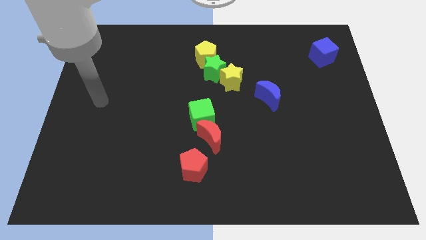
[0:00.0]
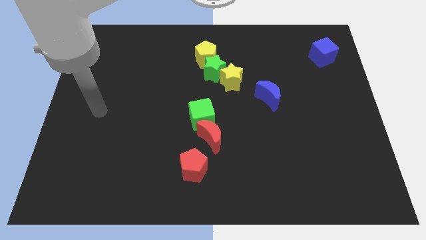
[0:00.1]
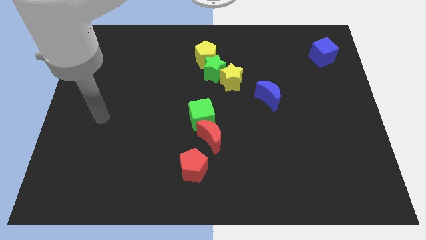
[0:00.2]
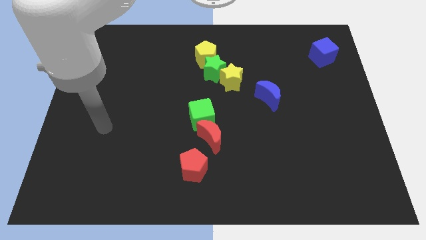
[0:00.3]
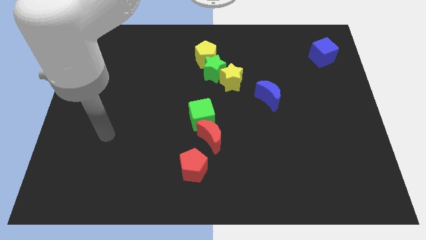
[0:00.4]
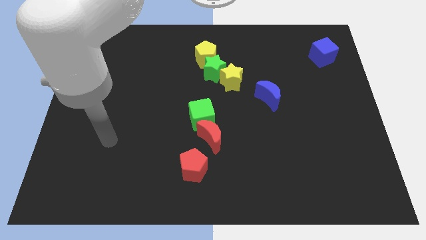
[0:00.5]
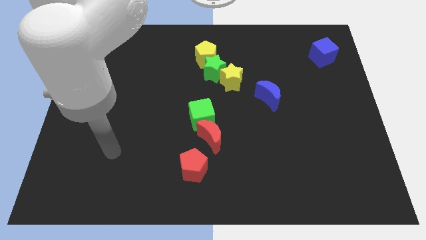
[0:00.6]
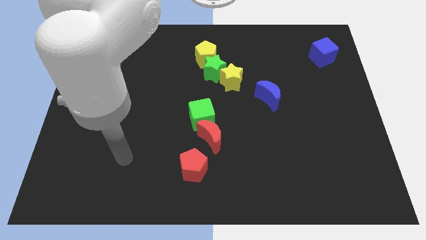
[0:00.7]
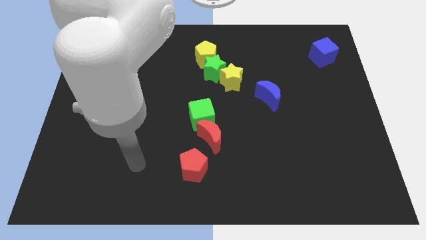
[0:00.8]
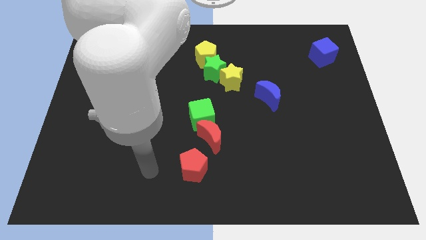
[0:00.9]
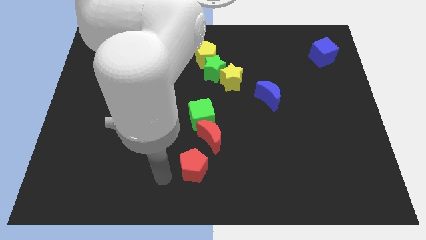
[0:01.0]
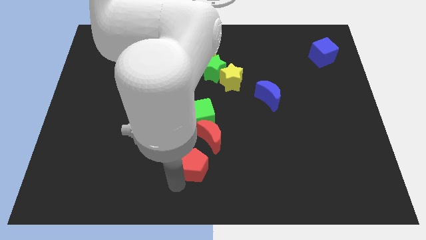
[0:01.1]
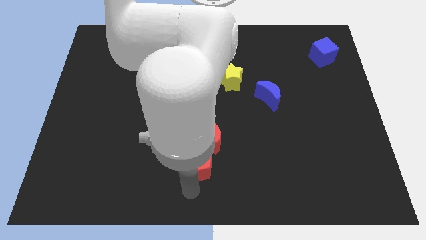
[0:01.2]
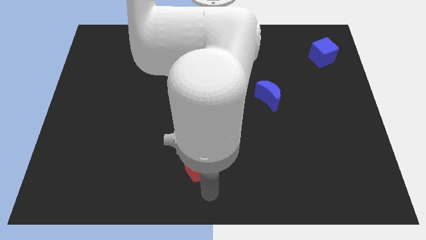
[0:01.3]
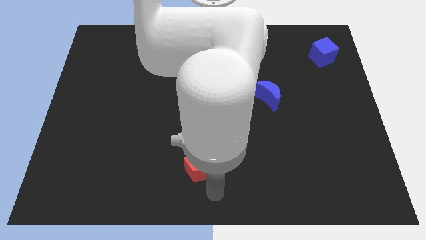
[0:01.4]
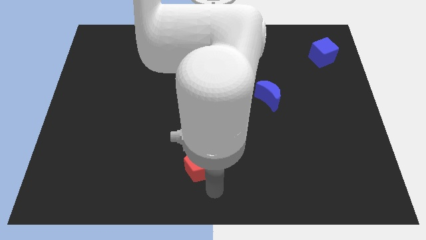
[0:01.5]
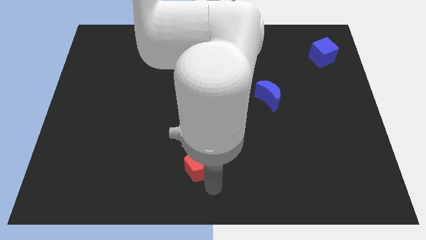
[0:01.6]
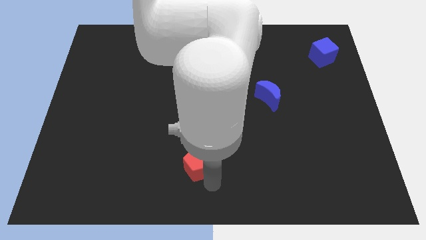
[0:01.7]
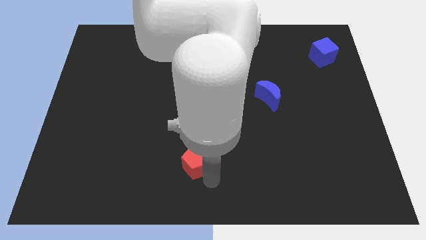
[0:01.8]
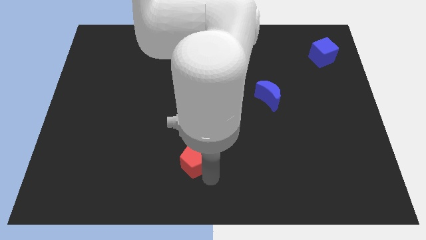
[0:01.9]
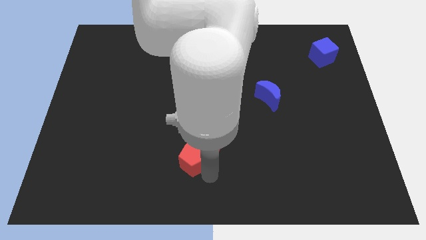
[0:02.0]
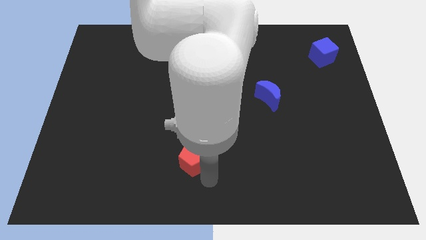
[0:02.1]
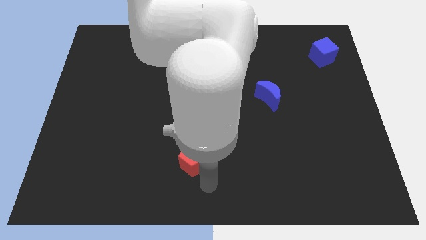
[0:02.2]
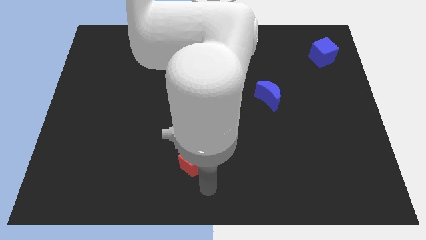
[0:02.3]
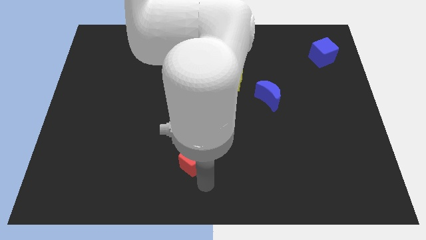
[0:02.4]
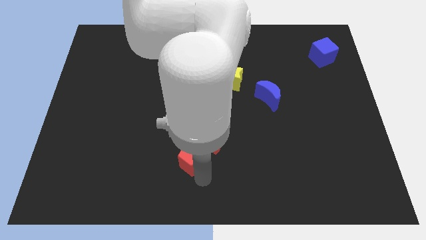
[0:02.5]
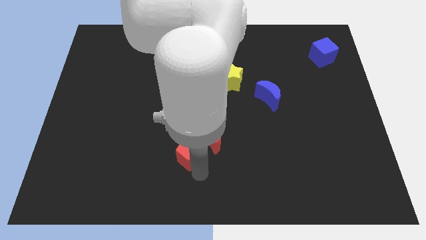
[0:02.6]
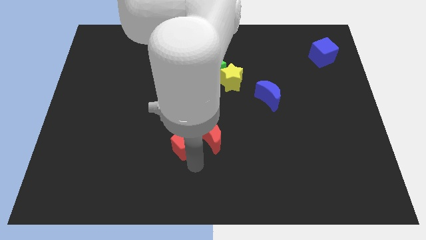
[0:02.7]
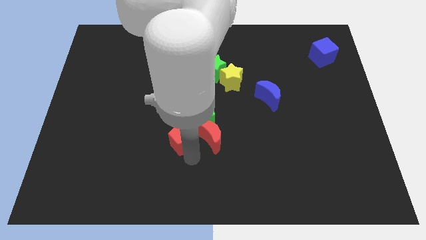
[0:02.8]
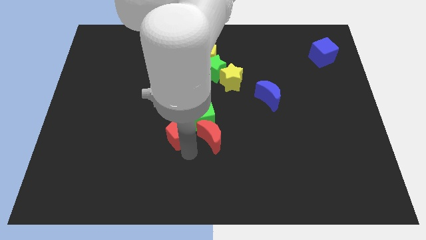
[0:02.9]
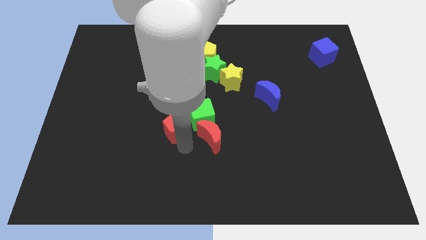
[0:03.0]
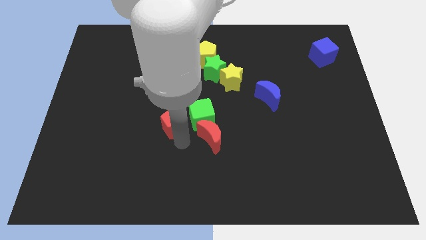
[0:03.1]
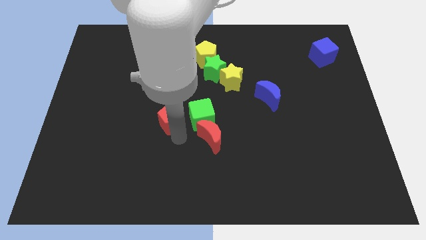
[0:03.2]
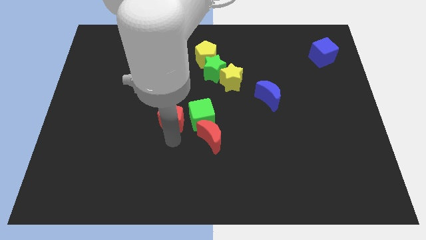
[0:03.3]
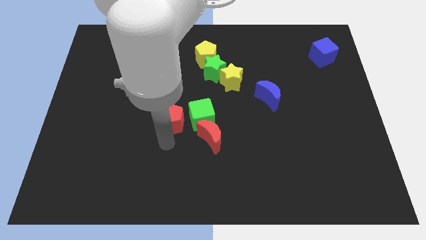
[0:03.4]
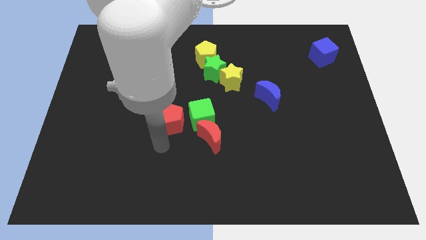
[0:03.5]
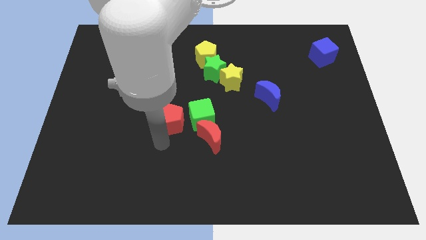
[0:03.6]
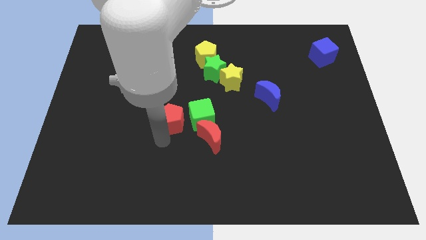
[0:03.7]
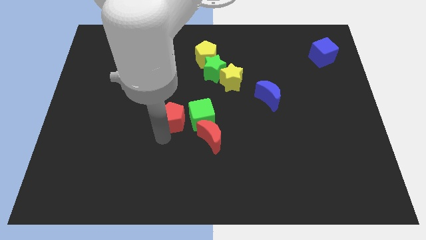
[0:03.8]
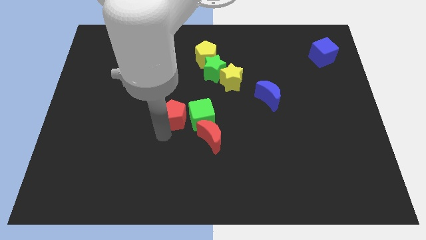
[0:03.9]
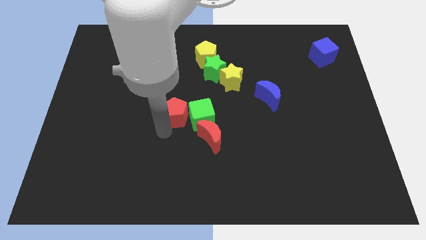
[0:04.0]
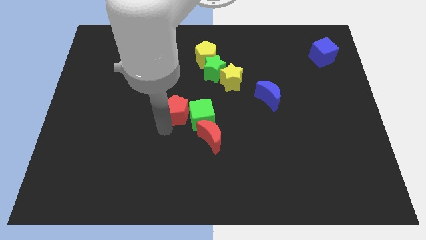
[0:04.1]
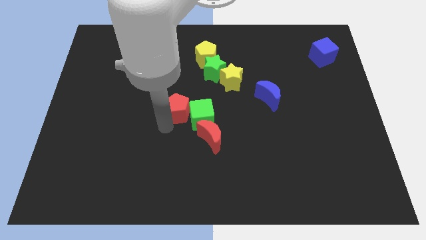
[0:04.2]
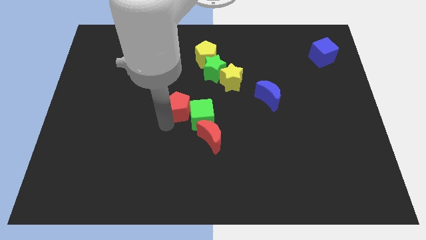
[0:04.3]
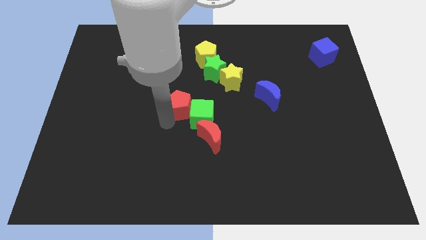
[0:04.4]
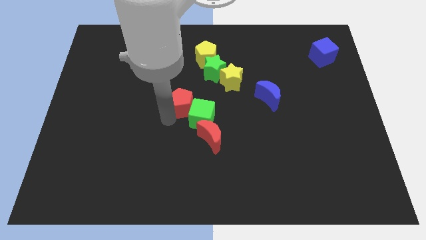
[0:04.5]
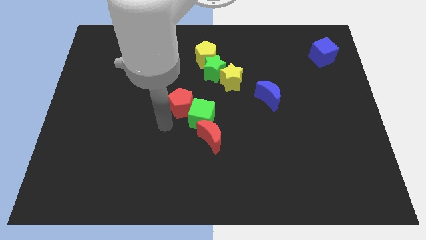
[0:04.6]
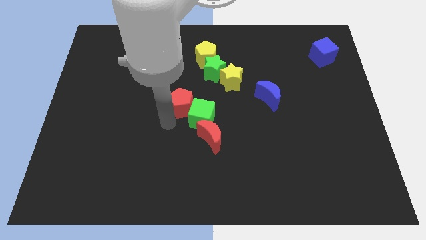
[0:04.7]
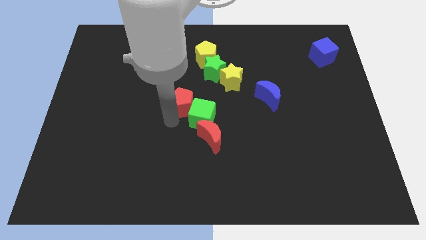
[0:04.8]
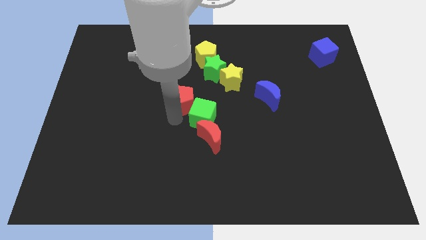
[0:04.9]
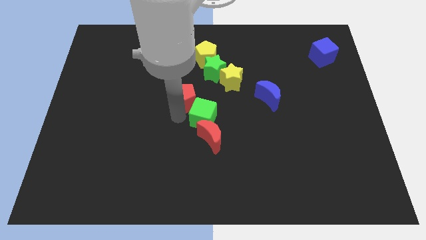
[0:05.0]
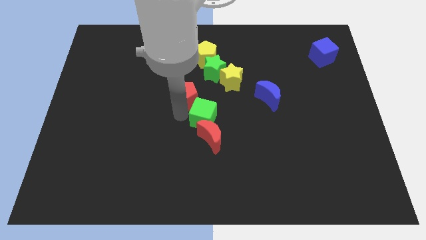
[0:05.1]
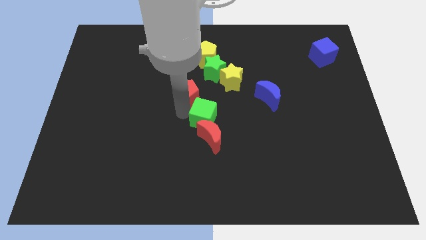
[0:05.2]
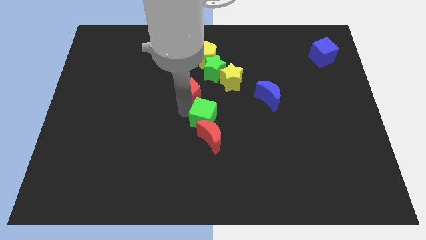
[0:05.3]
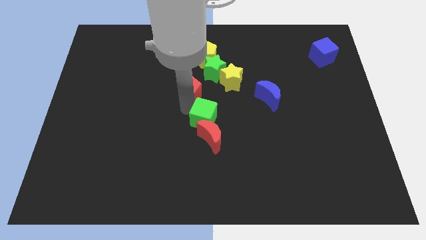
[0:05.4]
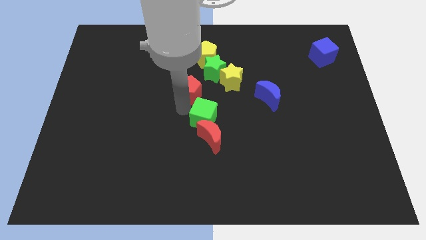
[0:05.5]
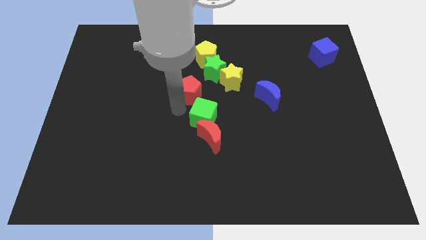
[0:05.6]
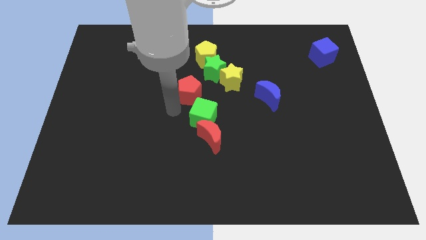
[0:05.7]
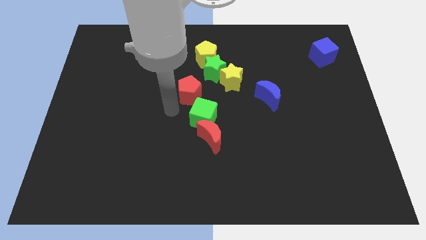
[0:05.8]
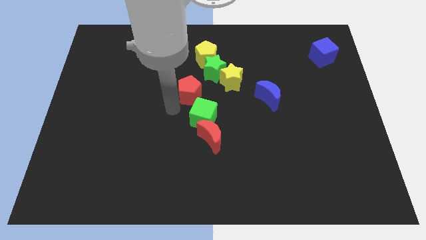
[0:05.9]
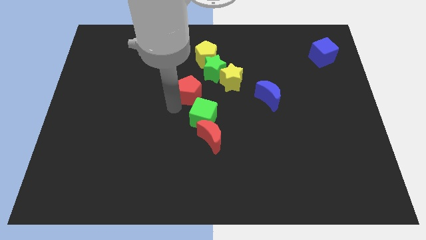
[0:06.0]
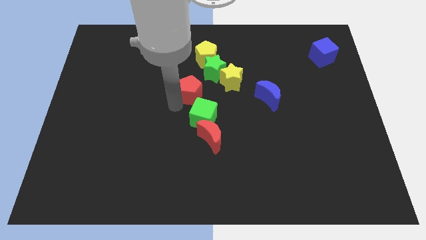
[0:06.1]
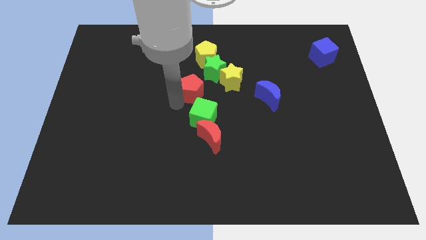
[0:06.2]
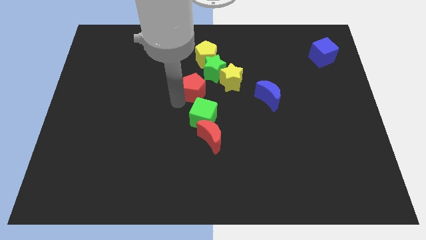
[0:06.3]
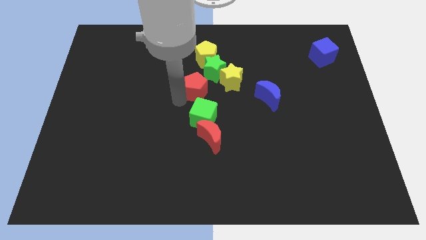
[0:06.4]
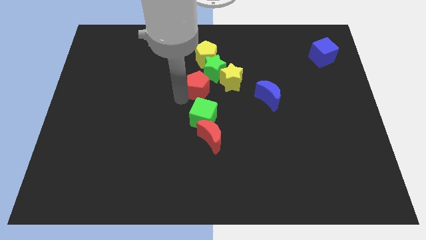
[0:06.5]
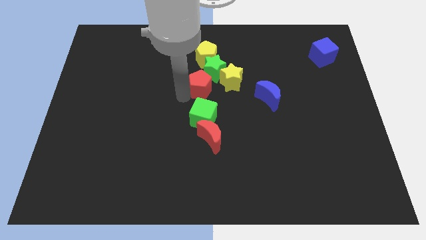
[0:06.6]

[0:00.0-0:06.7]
move the red pentagon next to the green star

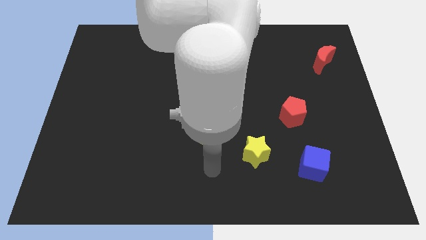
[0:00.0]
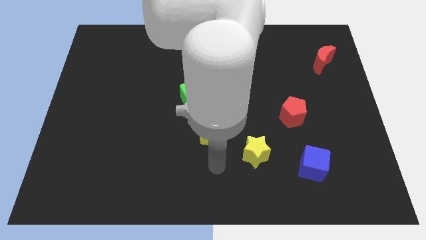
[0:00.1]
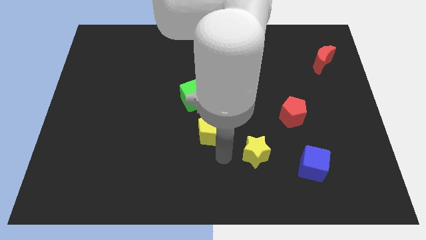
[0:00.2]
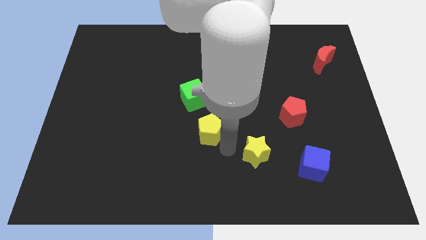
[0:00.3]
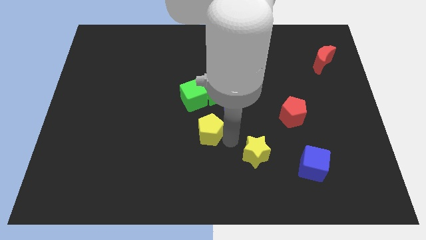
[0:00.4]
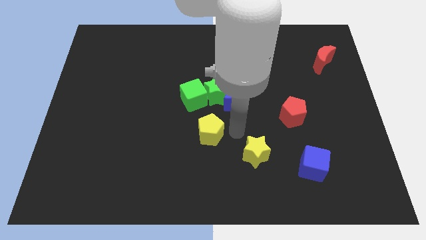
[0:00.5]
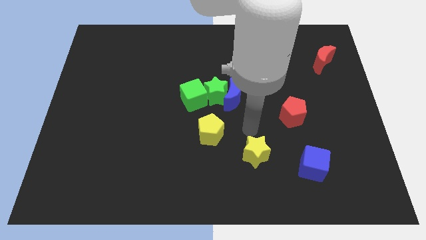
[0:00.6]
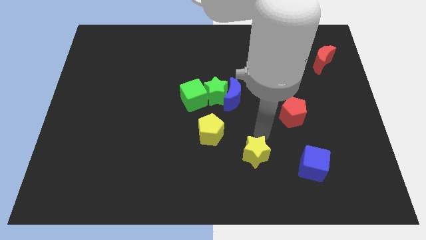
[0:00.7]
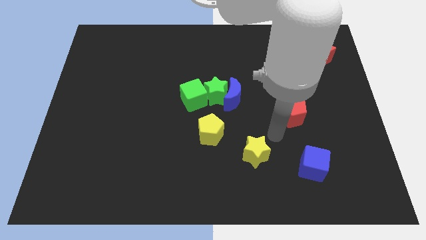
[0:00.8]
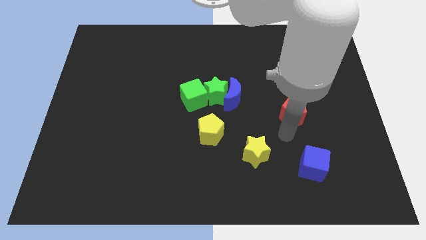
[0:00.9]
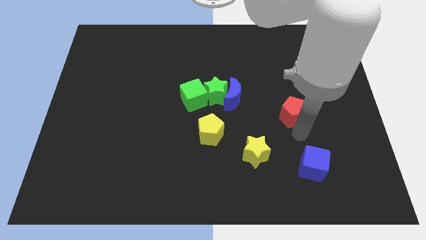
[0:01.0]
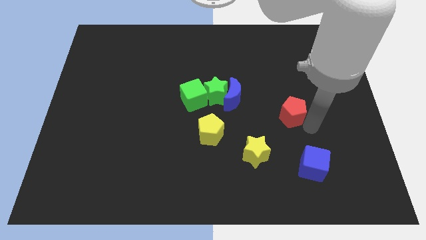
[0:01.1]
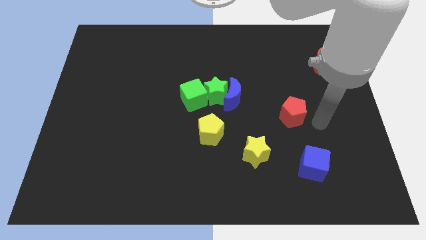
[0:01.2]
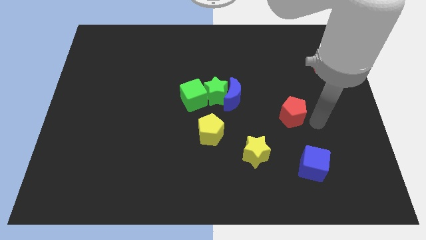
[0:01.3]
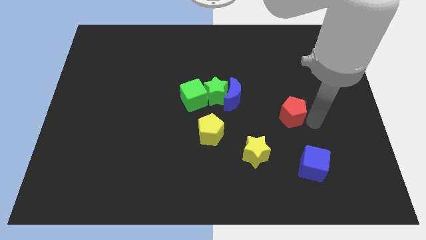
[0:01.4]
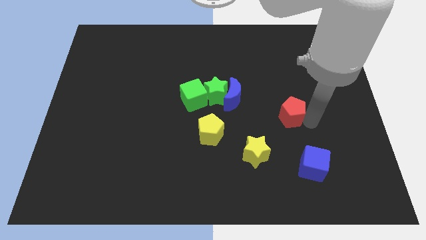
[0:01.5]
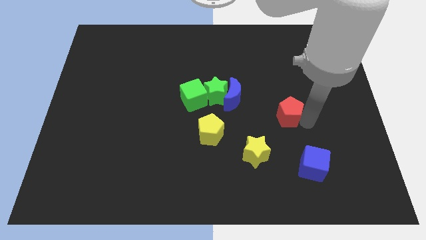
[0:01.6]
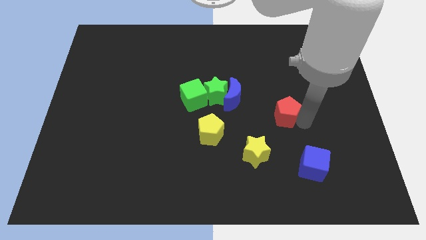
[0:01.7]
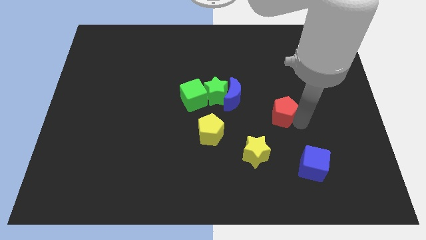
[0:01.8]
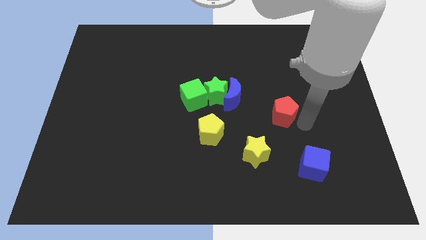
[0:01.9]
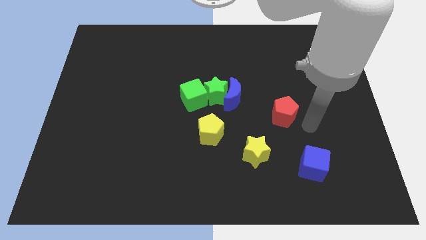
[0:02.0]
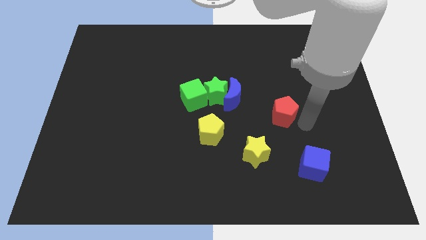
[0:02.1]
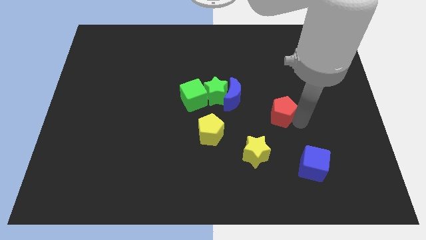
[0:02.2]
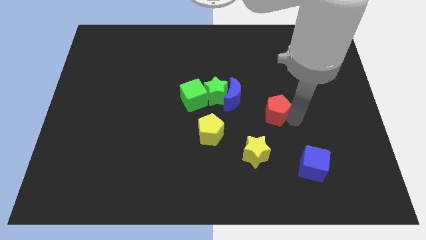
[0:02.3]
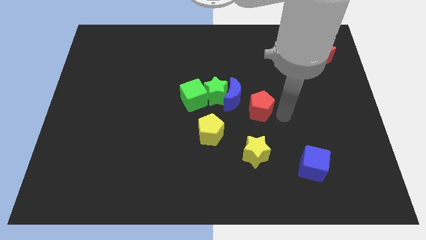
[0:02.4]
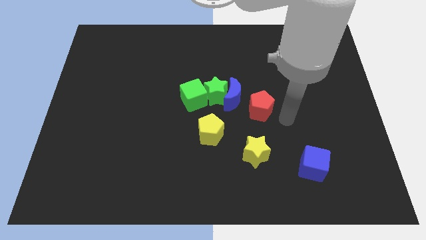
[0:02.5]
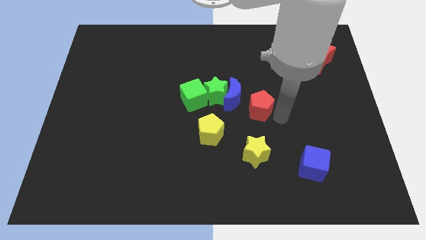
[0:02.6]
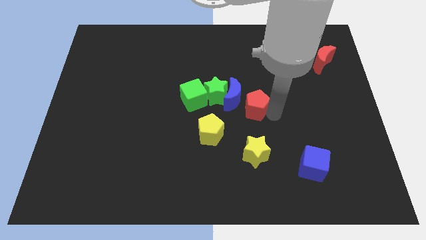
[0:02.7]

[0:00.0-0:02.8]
slide the red pentagon close to the blue moon
